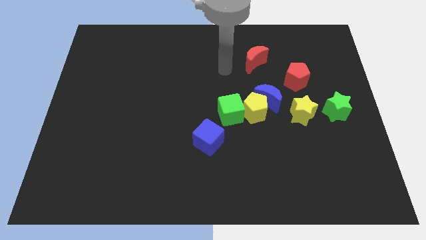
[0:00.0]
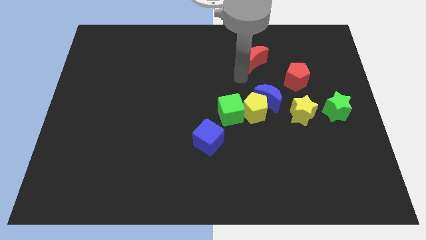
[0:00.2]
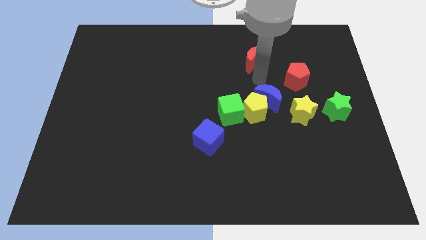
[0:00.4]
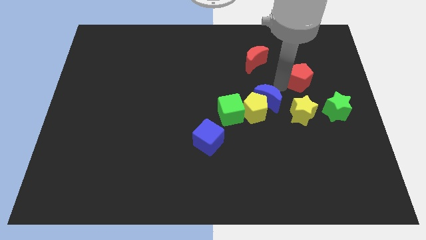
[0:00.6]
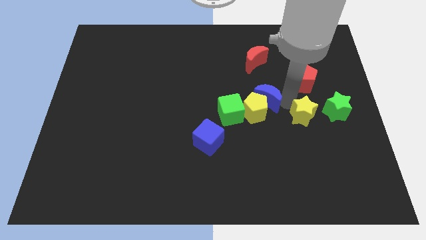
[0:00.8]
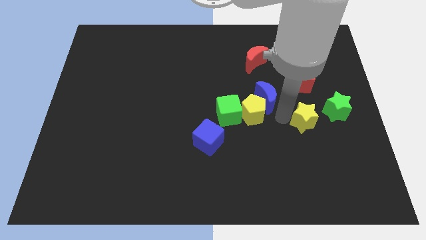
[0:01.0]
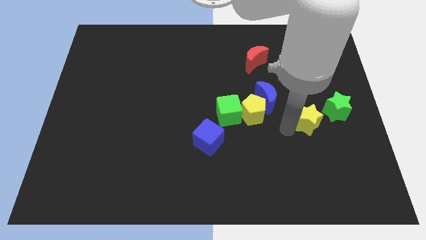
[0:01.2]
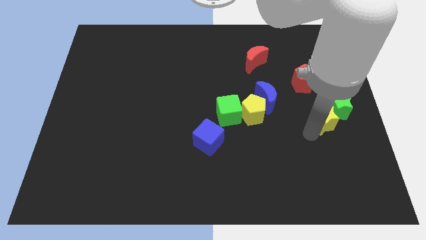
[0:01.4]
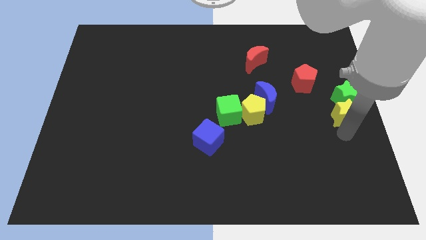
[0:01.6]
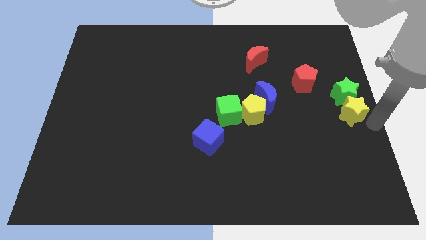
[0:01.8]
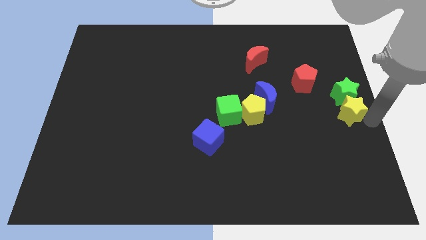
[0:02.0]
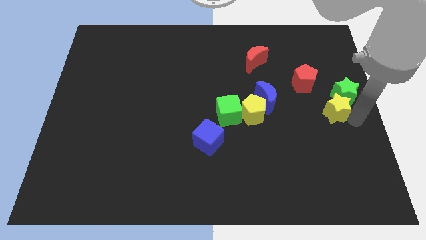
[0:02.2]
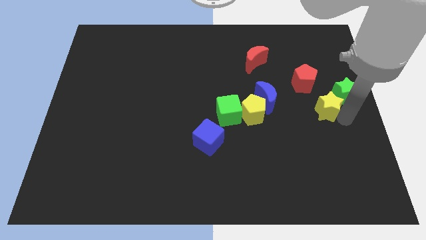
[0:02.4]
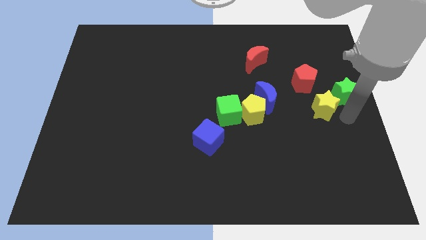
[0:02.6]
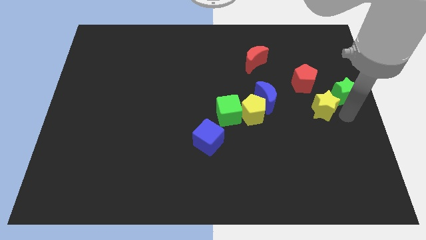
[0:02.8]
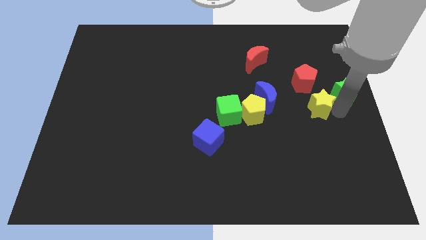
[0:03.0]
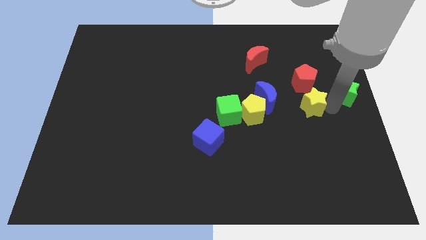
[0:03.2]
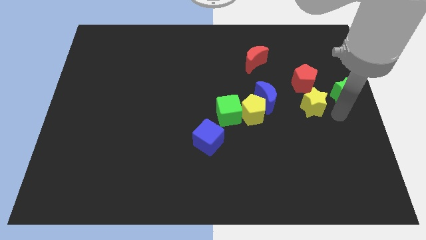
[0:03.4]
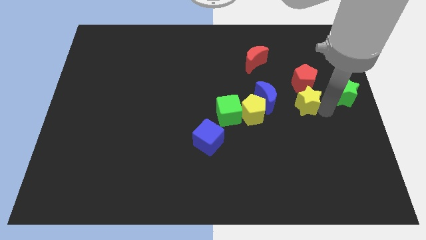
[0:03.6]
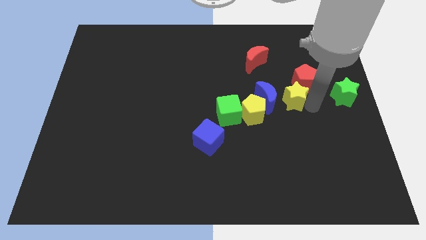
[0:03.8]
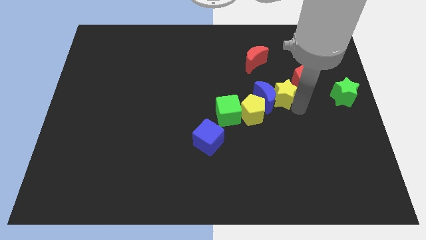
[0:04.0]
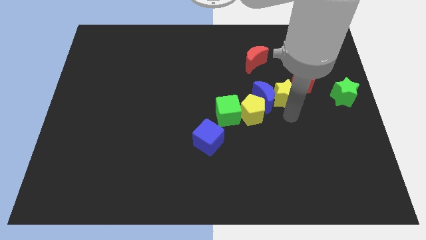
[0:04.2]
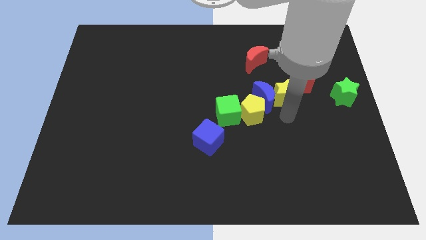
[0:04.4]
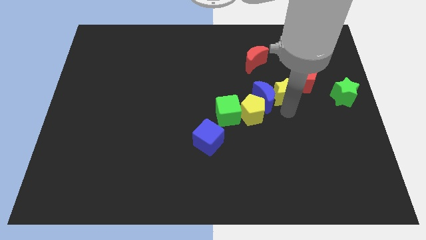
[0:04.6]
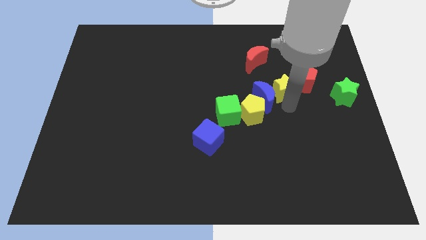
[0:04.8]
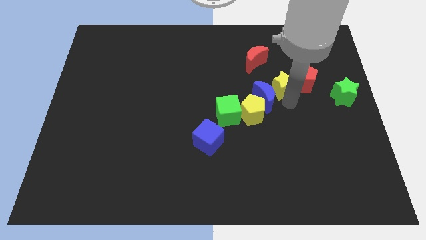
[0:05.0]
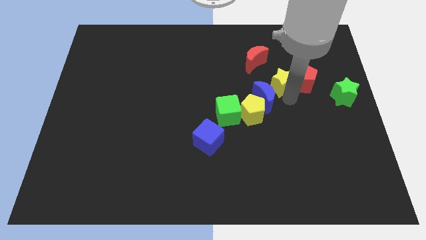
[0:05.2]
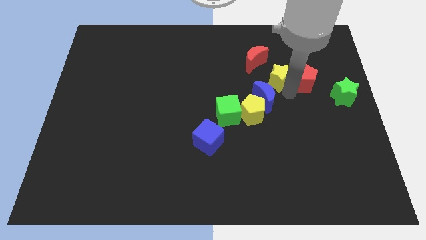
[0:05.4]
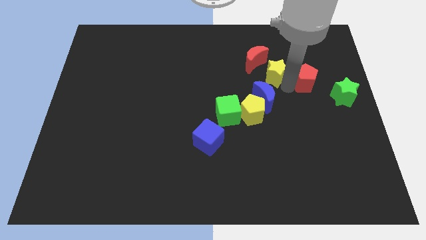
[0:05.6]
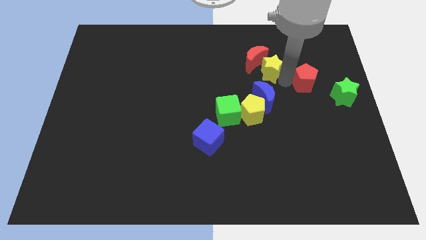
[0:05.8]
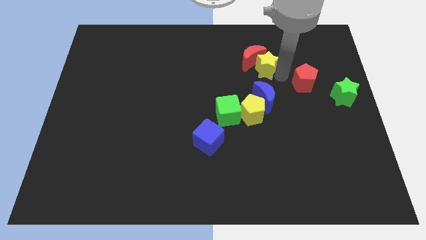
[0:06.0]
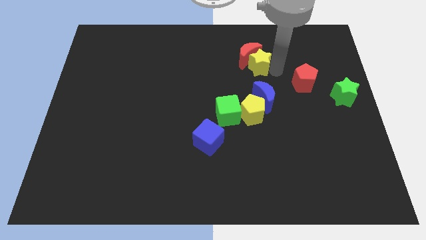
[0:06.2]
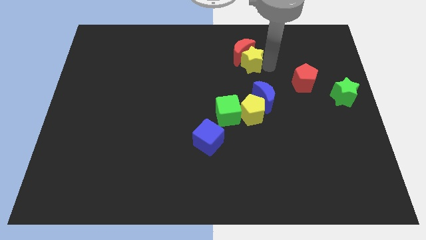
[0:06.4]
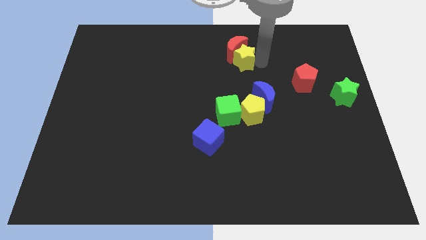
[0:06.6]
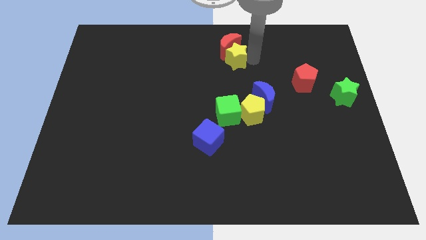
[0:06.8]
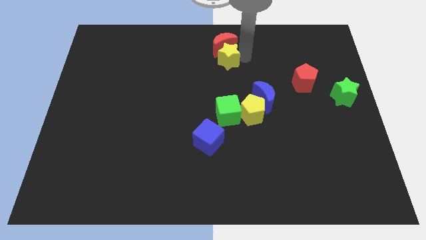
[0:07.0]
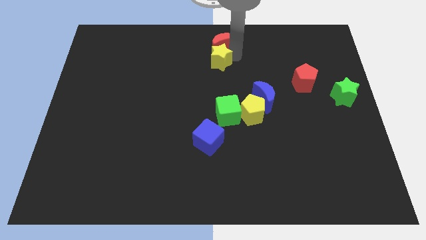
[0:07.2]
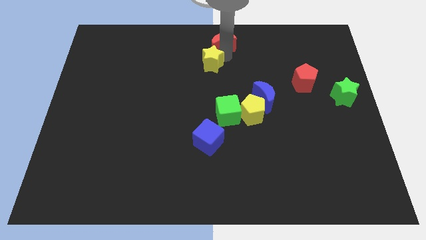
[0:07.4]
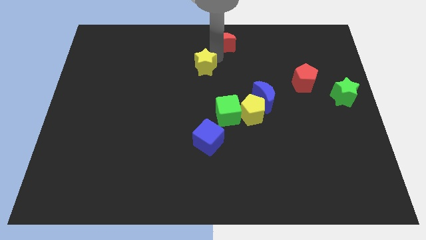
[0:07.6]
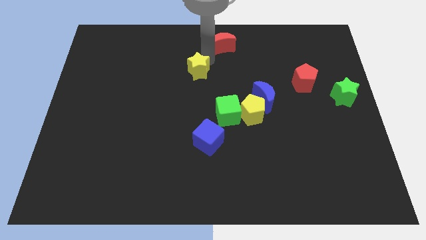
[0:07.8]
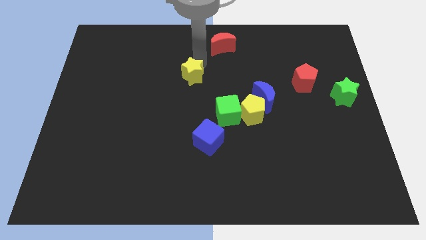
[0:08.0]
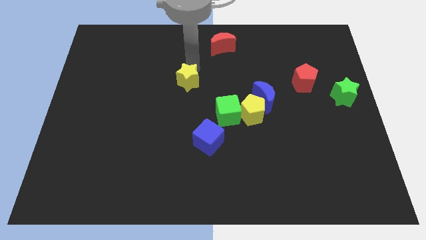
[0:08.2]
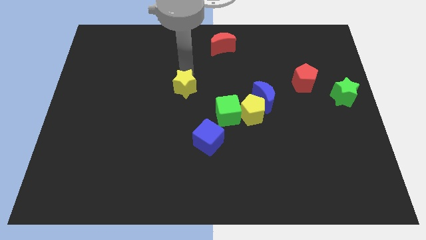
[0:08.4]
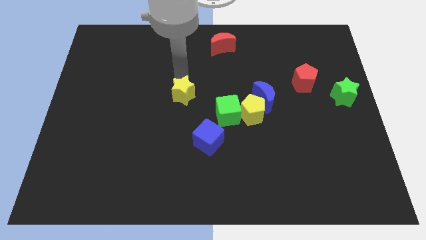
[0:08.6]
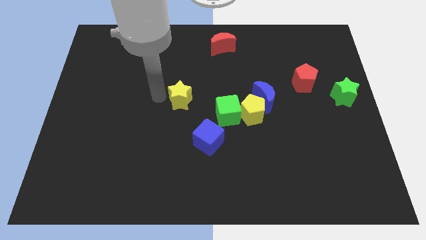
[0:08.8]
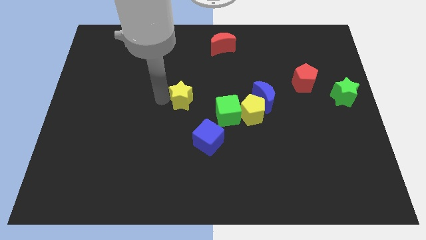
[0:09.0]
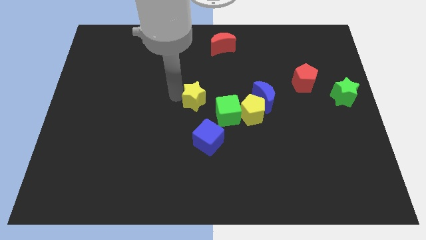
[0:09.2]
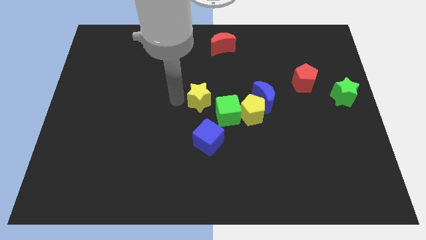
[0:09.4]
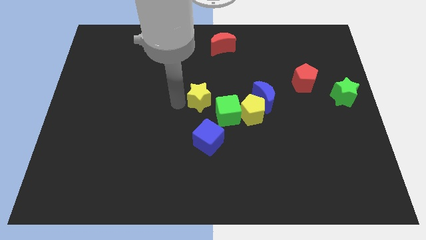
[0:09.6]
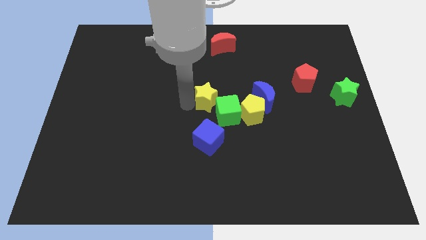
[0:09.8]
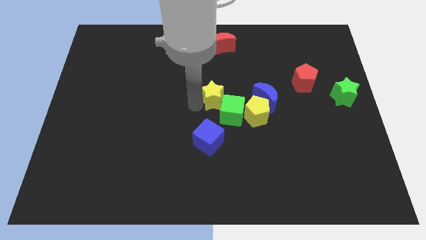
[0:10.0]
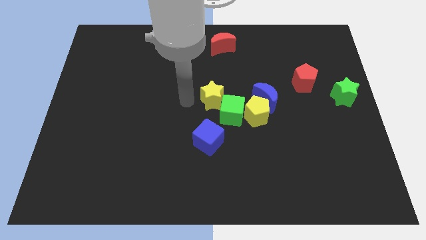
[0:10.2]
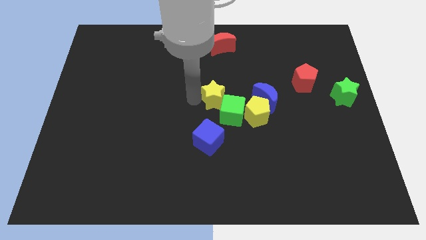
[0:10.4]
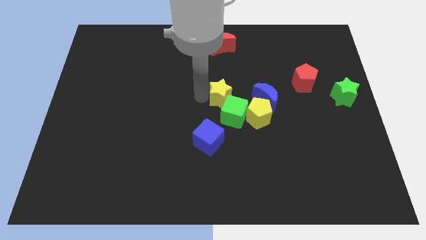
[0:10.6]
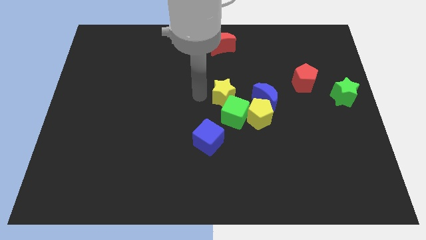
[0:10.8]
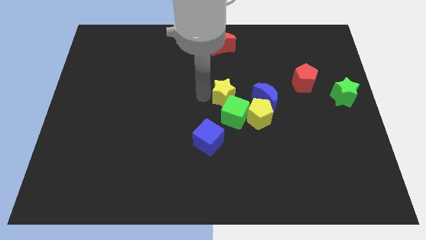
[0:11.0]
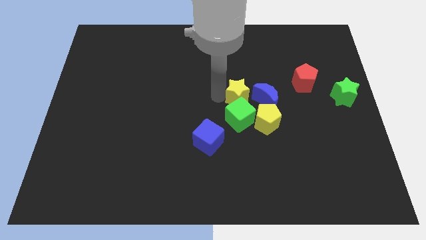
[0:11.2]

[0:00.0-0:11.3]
push the yellow star to the top right side of the green cube

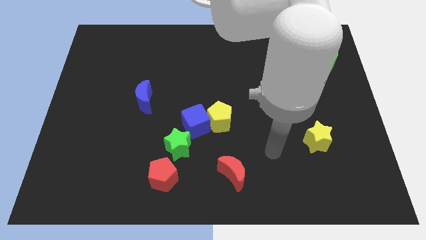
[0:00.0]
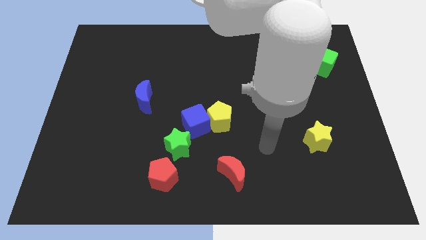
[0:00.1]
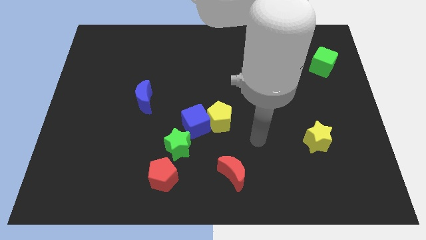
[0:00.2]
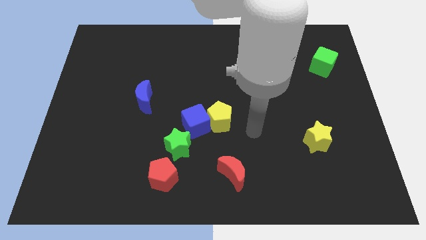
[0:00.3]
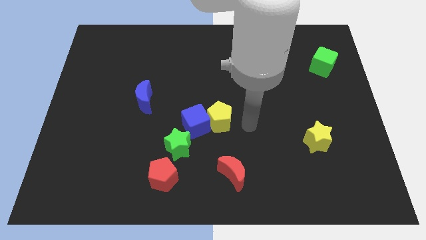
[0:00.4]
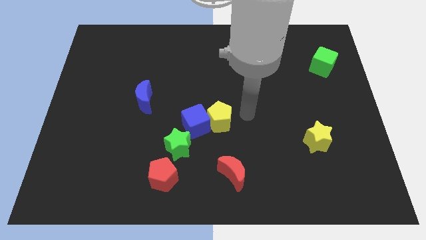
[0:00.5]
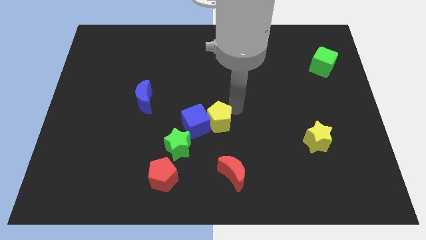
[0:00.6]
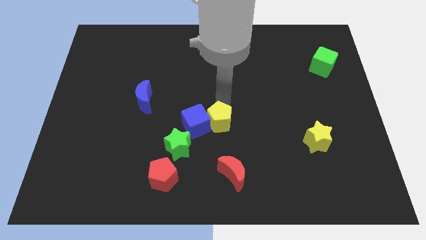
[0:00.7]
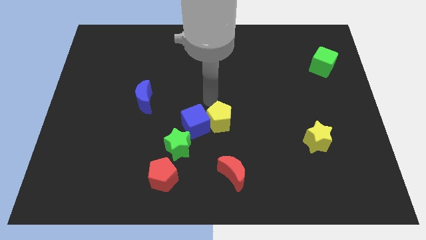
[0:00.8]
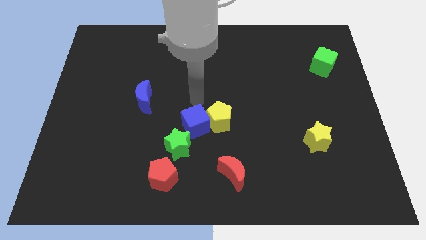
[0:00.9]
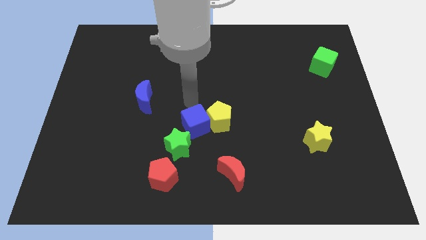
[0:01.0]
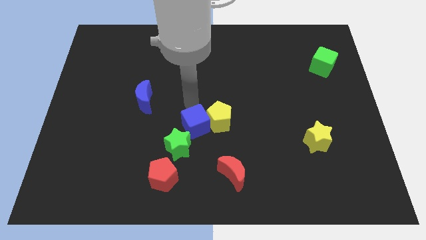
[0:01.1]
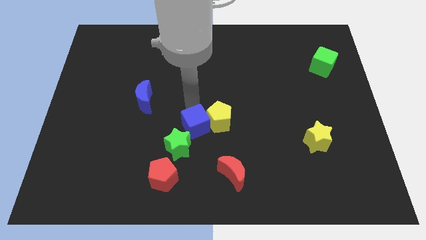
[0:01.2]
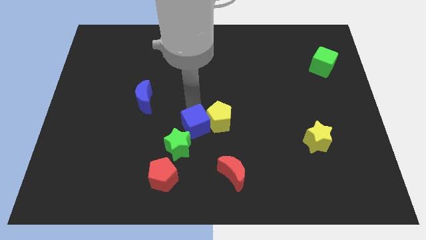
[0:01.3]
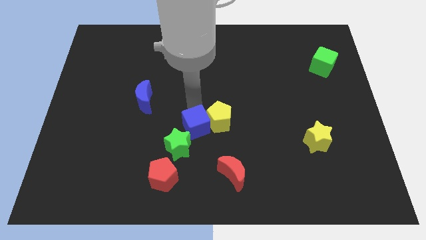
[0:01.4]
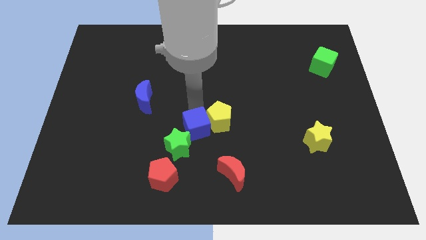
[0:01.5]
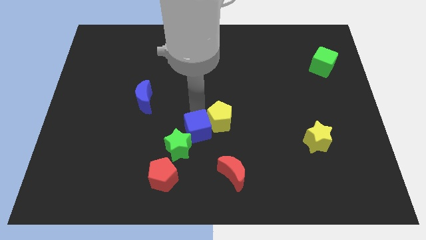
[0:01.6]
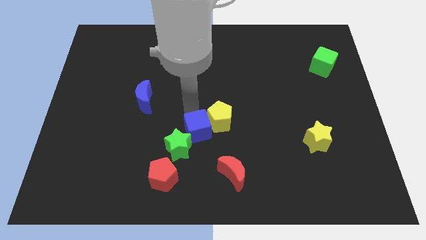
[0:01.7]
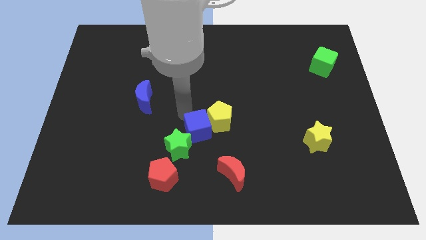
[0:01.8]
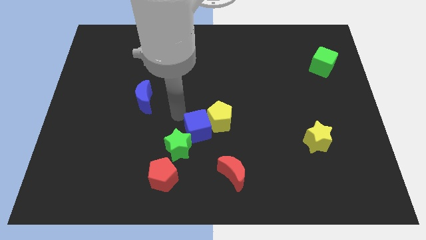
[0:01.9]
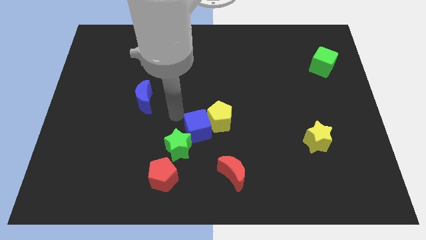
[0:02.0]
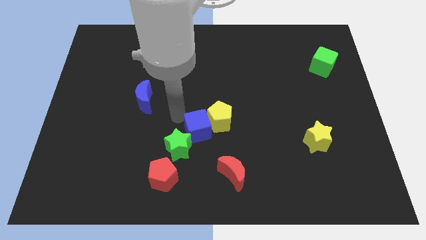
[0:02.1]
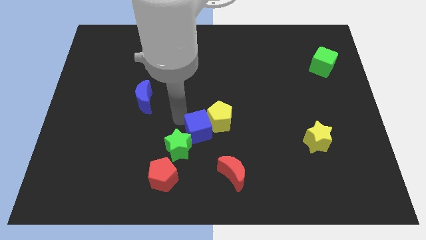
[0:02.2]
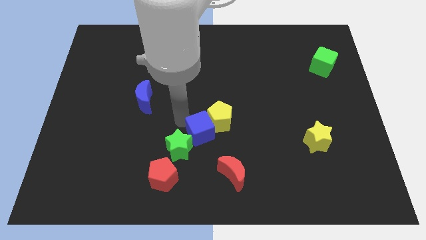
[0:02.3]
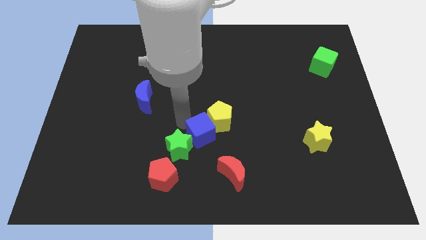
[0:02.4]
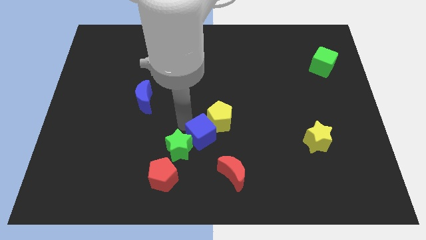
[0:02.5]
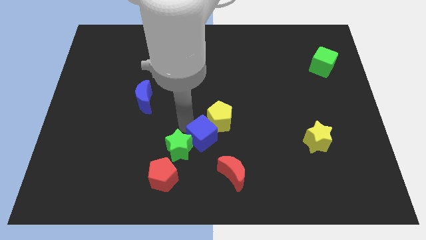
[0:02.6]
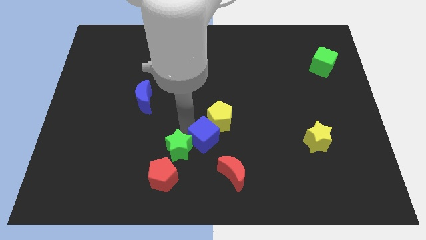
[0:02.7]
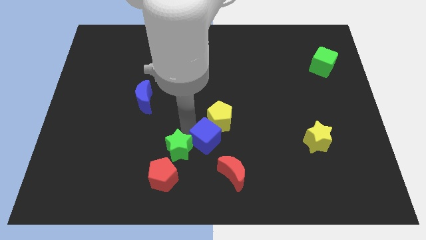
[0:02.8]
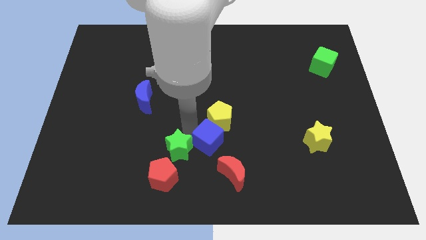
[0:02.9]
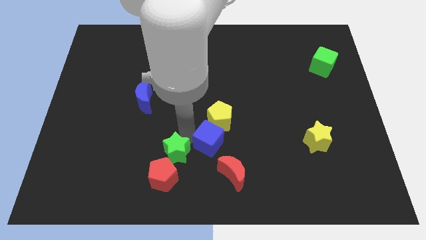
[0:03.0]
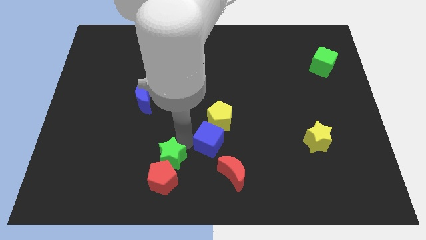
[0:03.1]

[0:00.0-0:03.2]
put the blue cube to the top side of the red moon
